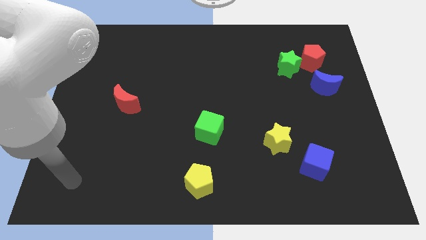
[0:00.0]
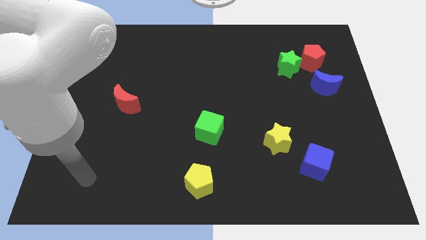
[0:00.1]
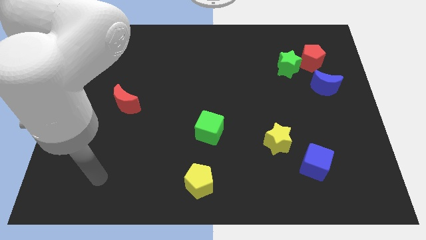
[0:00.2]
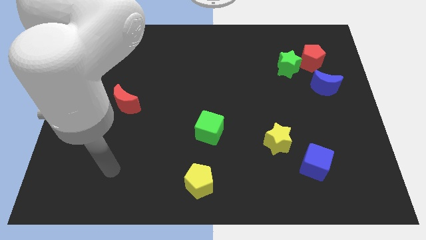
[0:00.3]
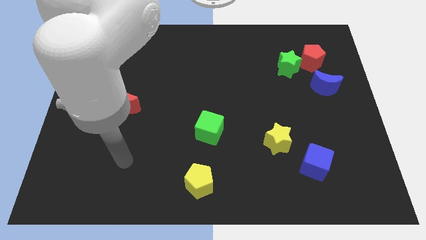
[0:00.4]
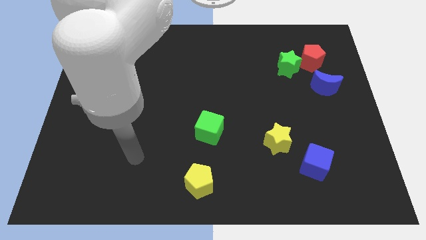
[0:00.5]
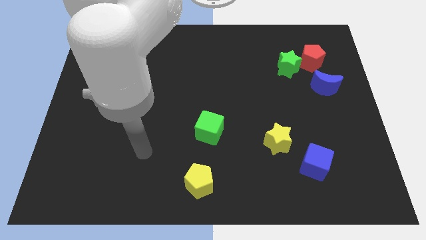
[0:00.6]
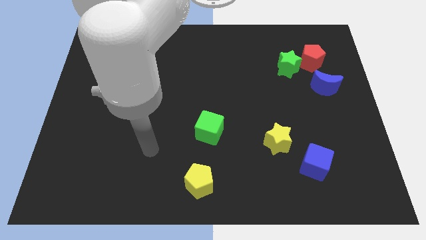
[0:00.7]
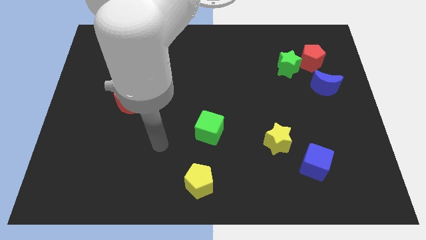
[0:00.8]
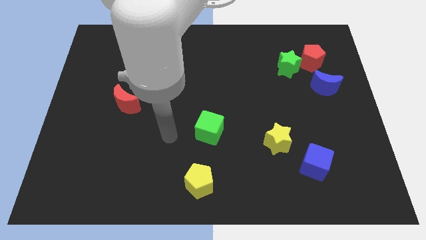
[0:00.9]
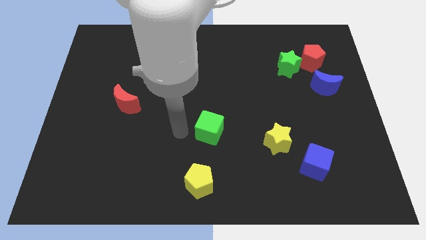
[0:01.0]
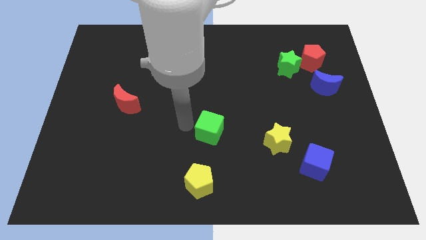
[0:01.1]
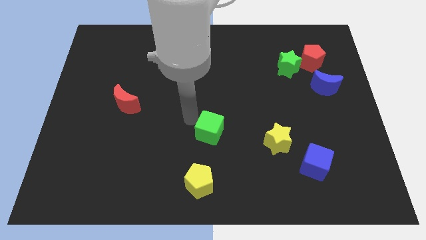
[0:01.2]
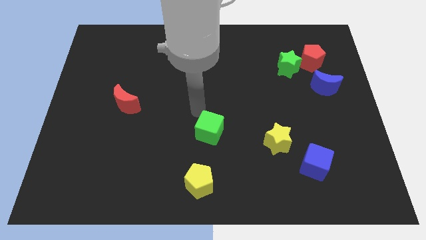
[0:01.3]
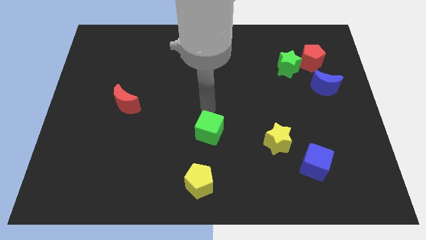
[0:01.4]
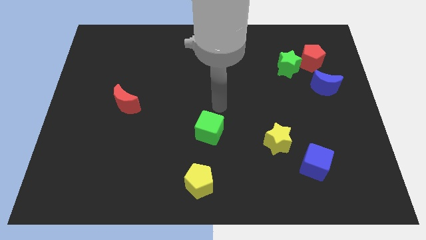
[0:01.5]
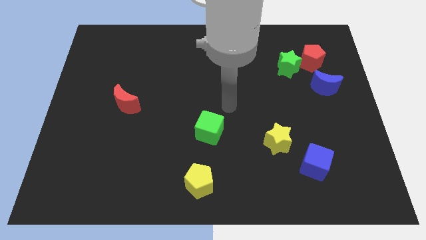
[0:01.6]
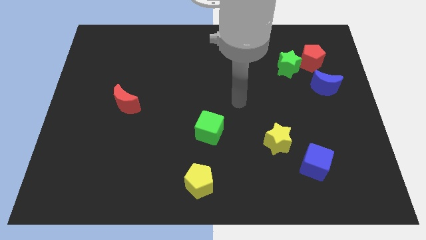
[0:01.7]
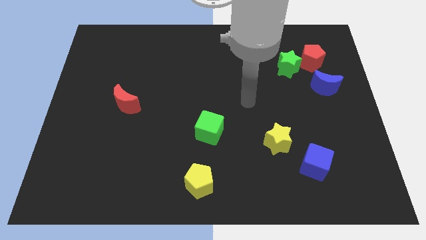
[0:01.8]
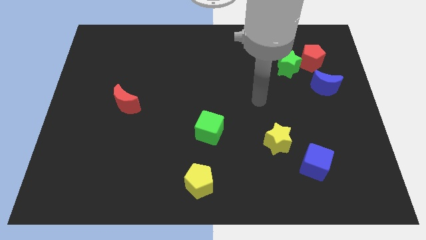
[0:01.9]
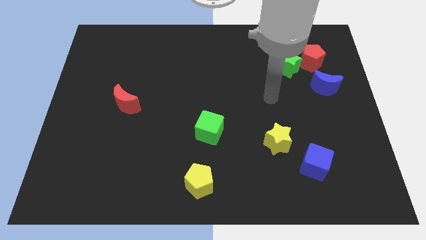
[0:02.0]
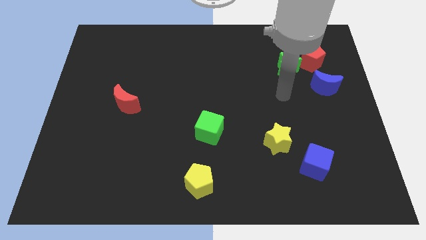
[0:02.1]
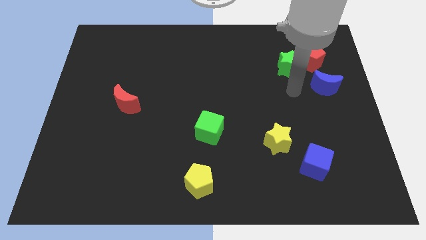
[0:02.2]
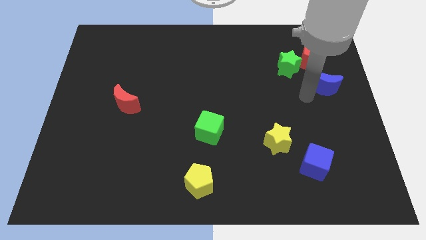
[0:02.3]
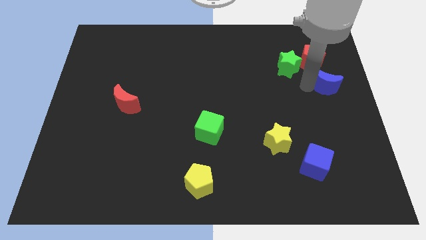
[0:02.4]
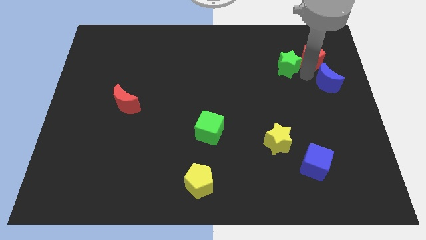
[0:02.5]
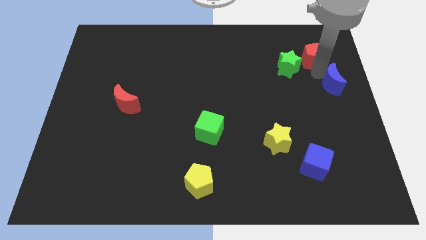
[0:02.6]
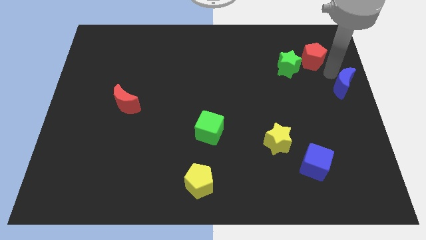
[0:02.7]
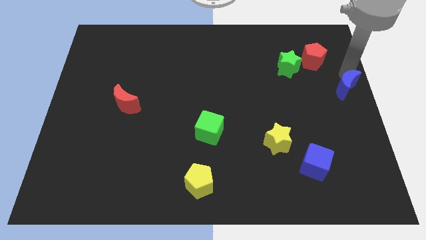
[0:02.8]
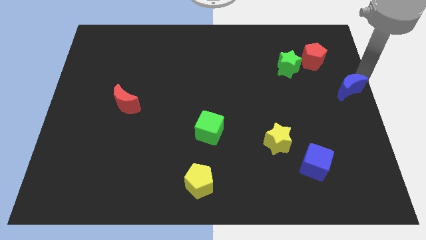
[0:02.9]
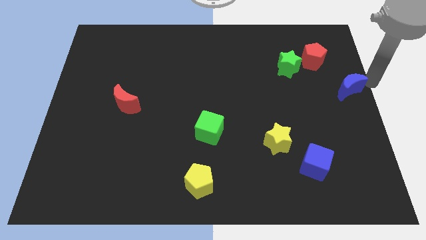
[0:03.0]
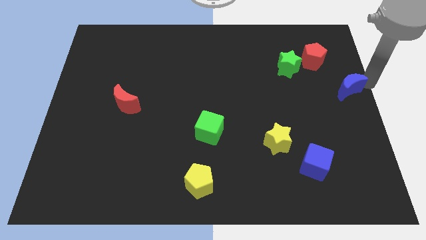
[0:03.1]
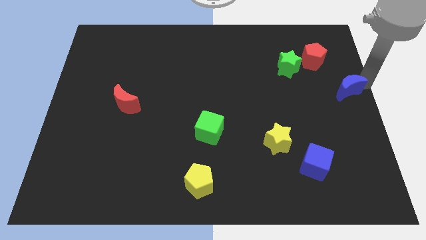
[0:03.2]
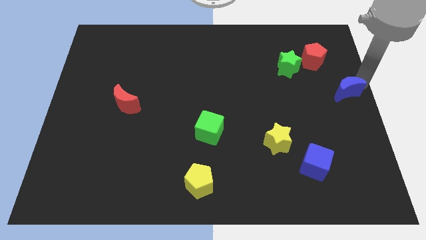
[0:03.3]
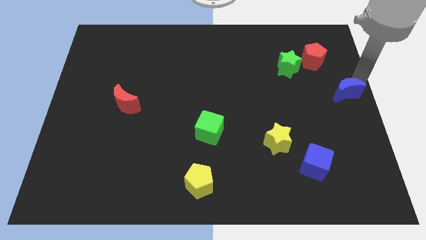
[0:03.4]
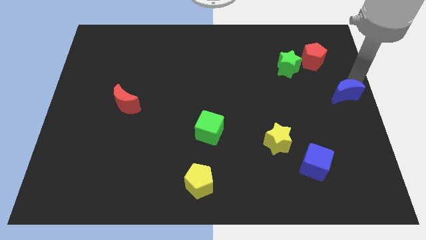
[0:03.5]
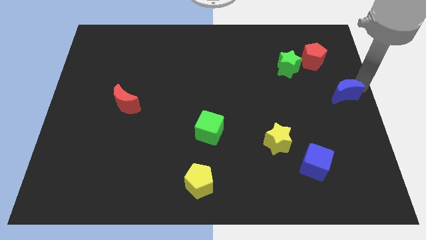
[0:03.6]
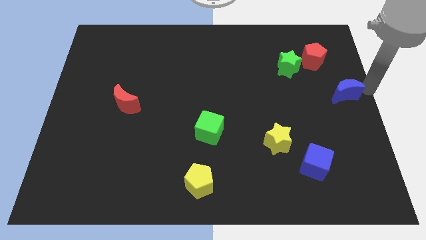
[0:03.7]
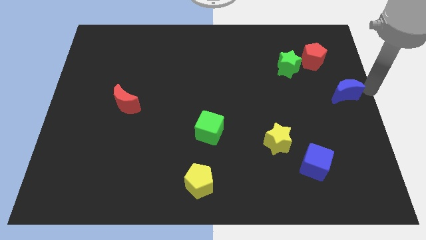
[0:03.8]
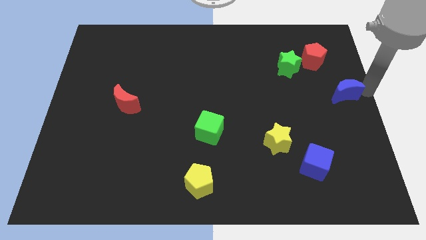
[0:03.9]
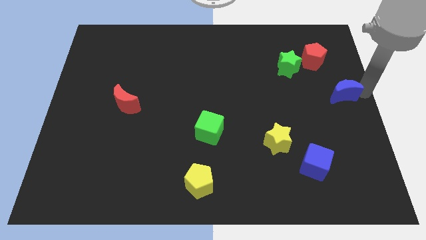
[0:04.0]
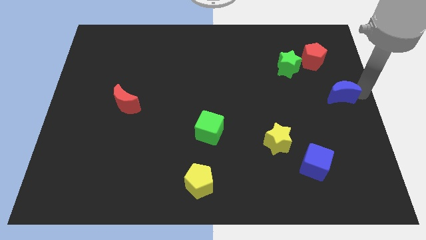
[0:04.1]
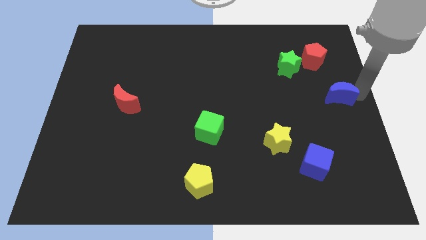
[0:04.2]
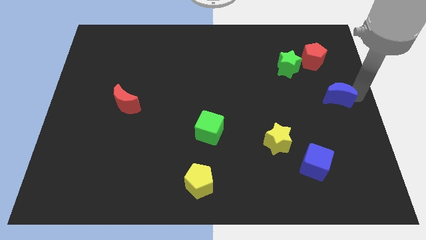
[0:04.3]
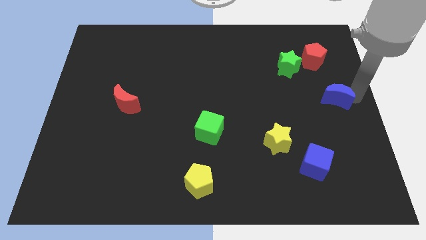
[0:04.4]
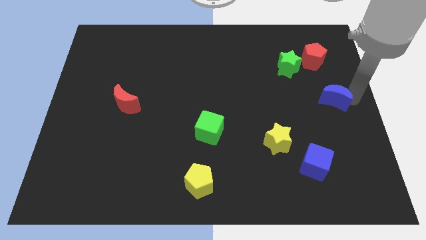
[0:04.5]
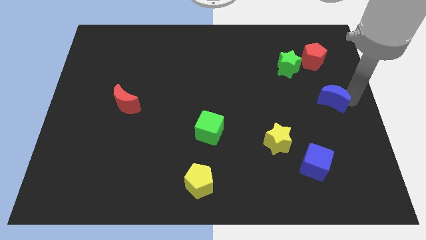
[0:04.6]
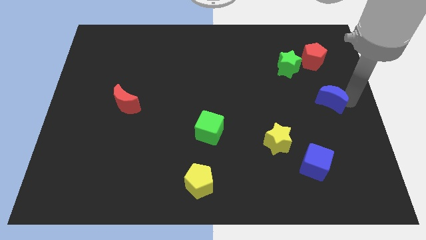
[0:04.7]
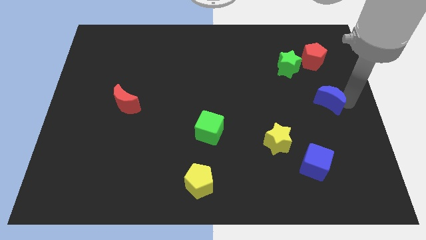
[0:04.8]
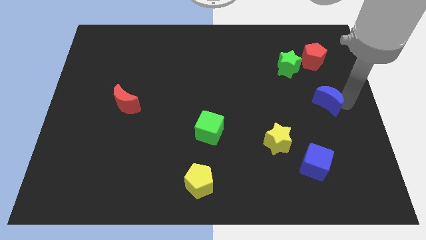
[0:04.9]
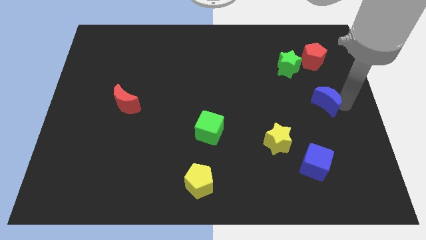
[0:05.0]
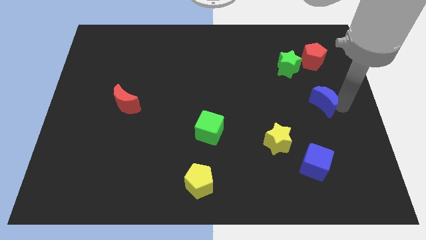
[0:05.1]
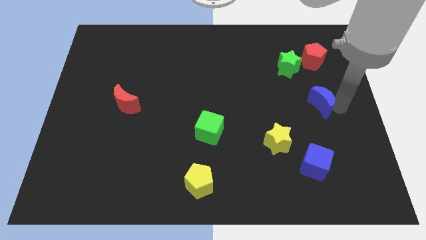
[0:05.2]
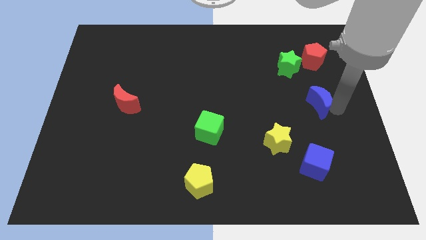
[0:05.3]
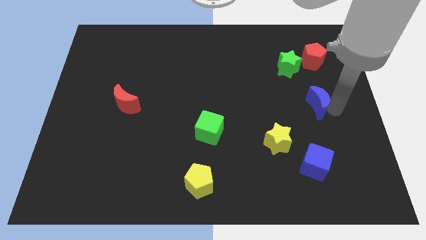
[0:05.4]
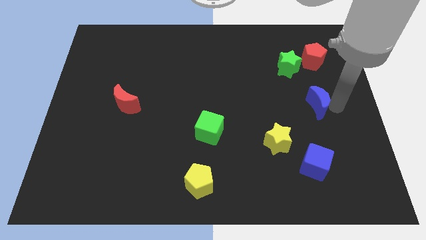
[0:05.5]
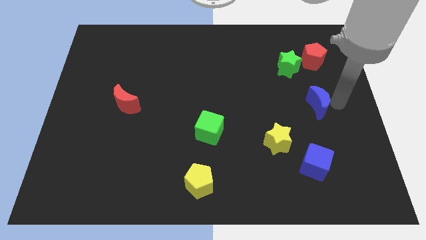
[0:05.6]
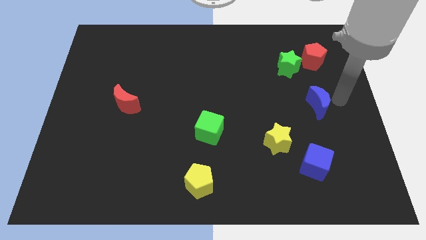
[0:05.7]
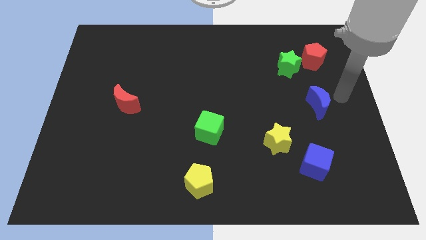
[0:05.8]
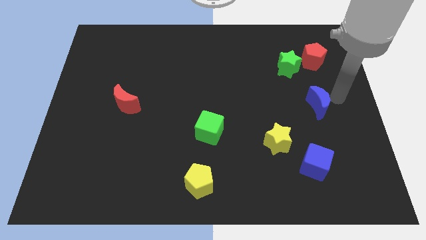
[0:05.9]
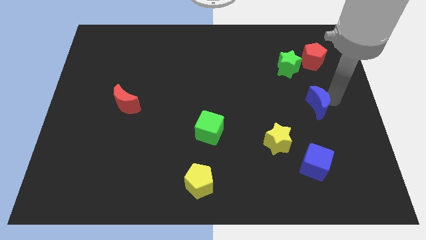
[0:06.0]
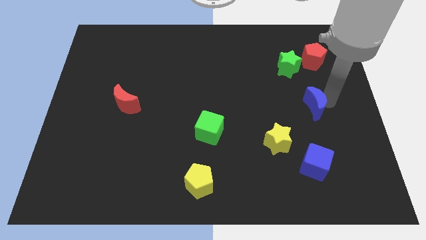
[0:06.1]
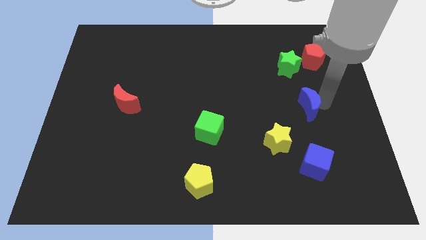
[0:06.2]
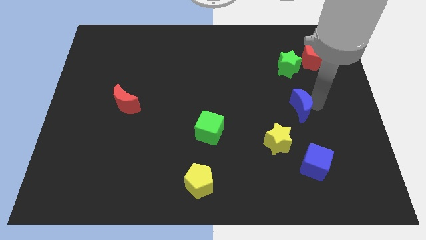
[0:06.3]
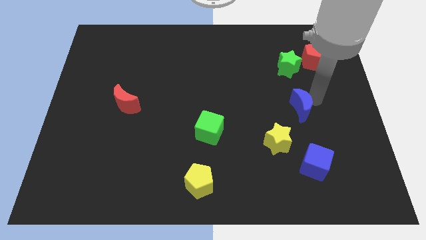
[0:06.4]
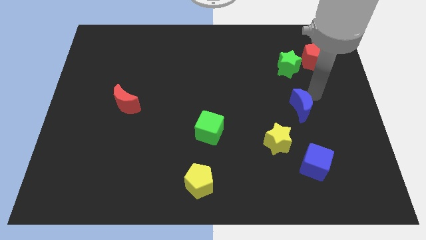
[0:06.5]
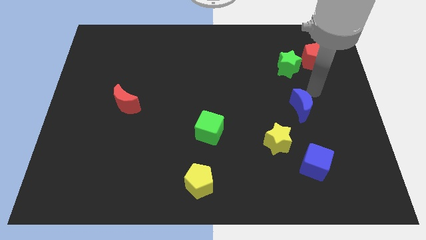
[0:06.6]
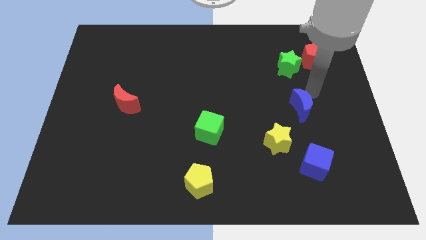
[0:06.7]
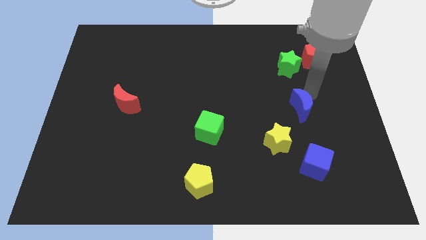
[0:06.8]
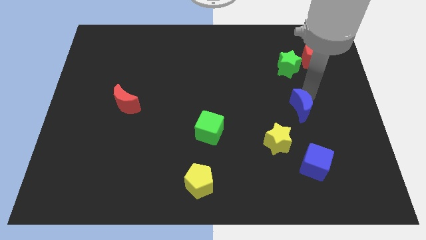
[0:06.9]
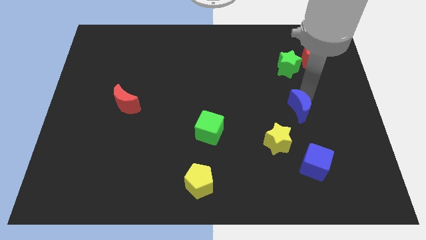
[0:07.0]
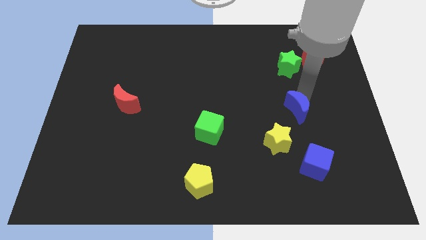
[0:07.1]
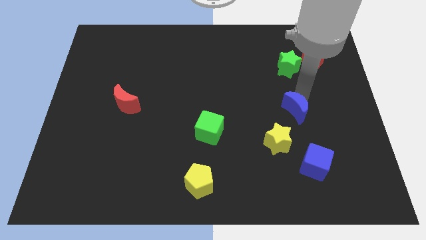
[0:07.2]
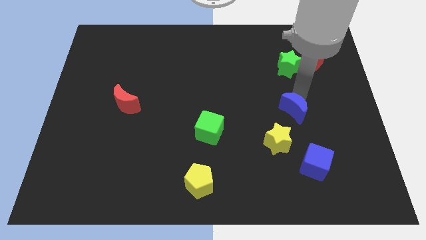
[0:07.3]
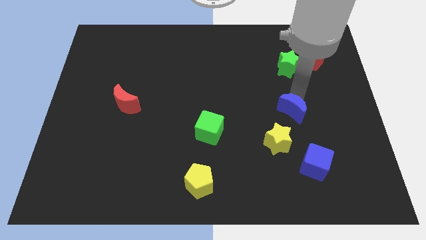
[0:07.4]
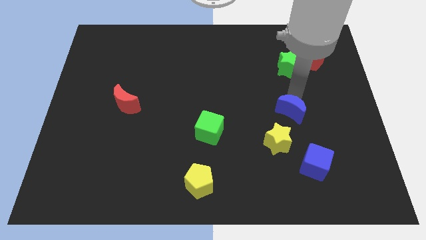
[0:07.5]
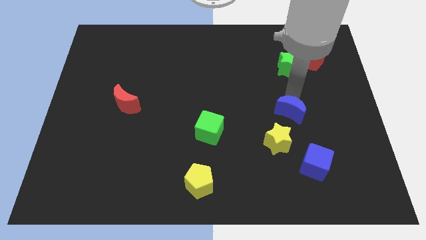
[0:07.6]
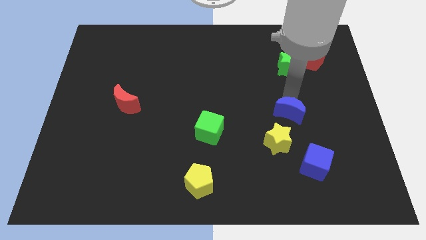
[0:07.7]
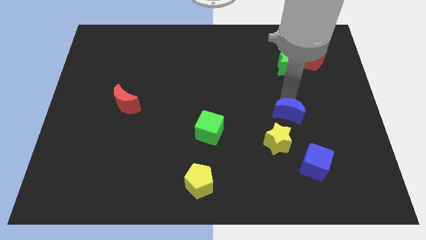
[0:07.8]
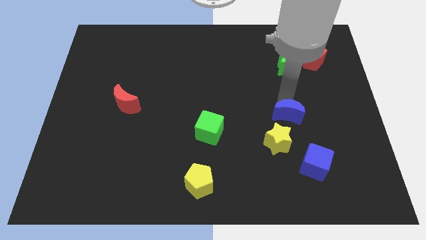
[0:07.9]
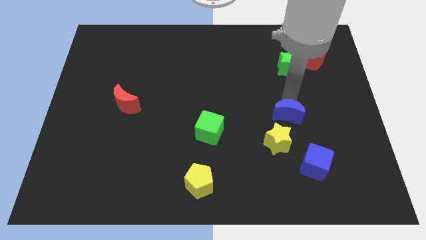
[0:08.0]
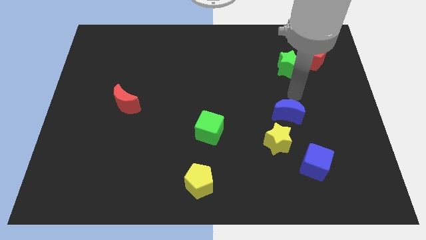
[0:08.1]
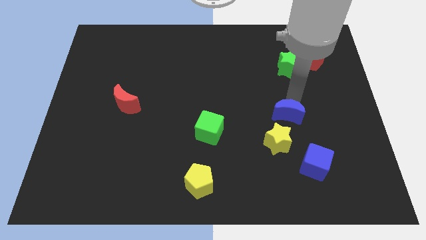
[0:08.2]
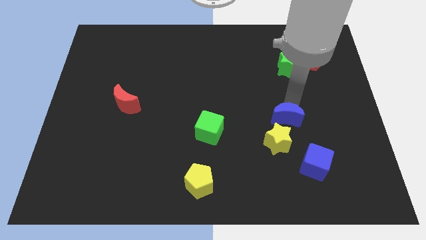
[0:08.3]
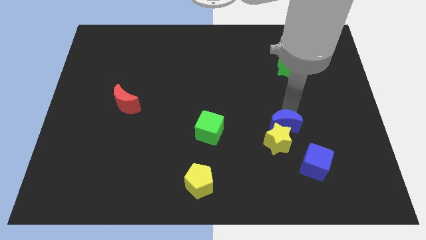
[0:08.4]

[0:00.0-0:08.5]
put the blue moon towards the yellow star
